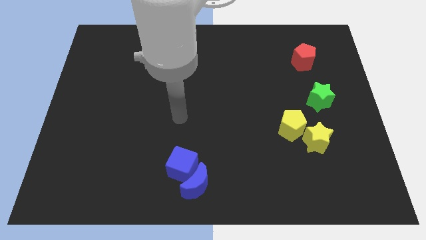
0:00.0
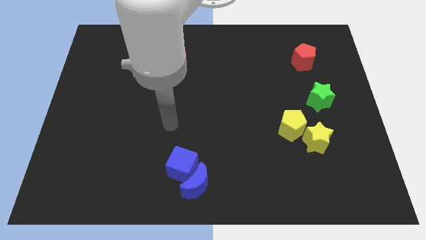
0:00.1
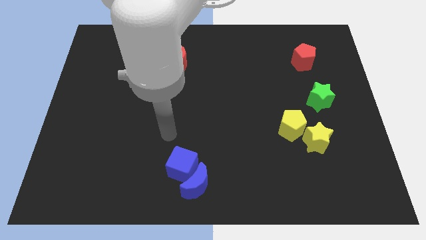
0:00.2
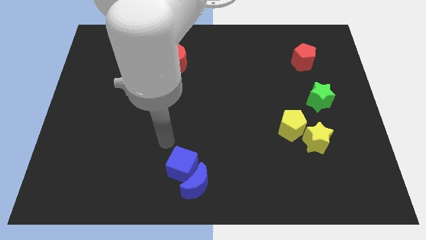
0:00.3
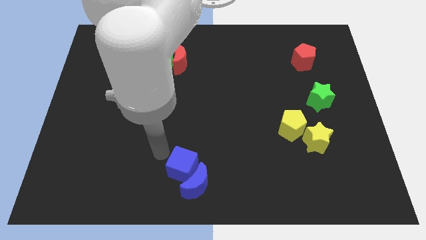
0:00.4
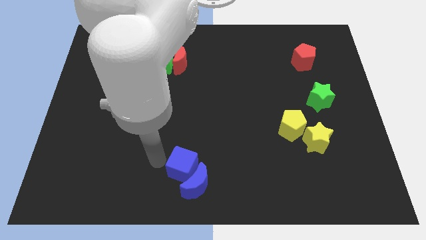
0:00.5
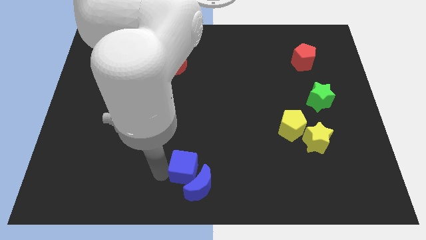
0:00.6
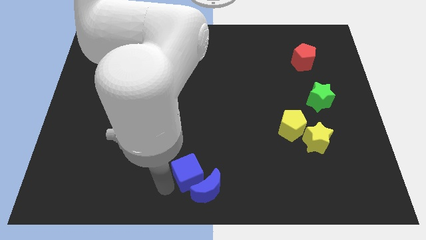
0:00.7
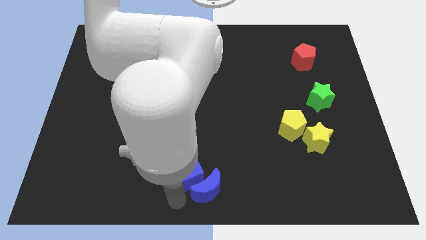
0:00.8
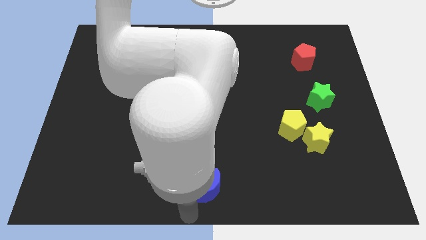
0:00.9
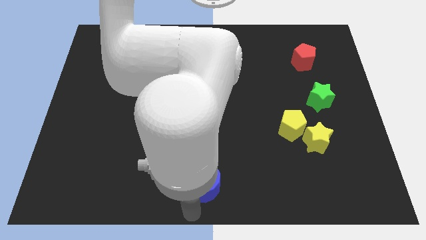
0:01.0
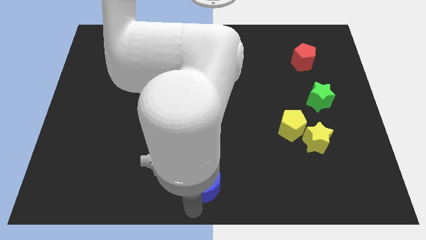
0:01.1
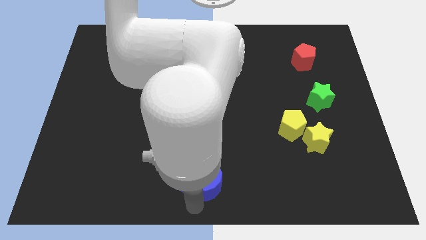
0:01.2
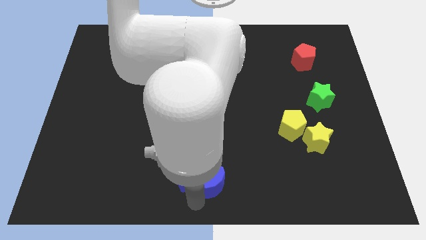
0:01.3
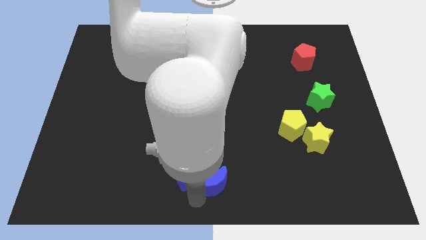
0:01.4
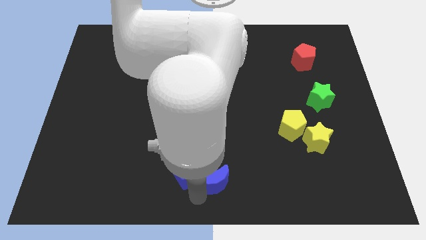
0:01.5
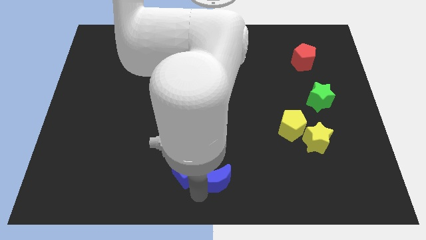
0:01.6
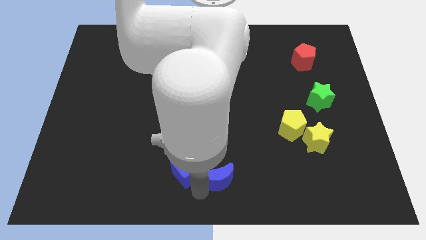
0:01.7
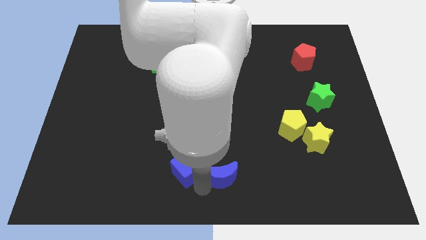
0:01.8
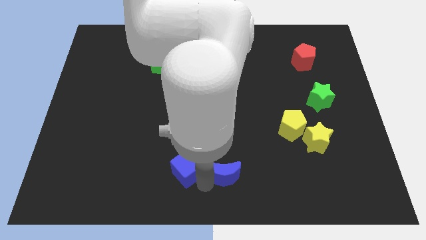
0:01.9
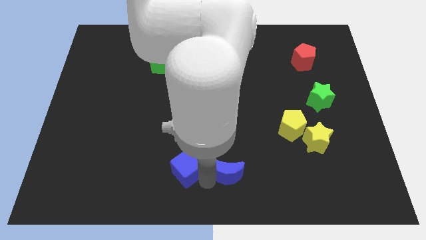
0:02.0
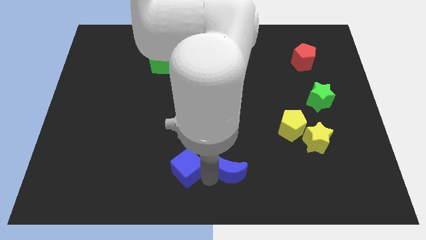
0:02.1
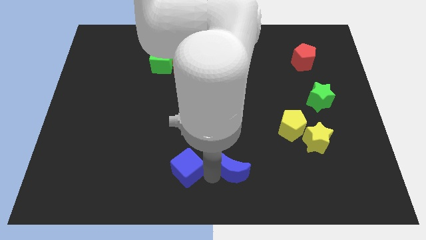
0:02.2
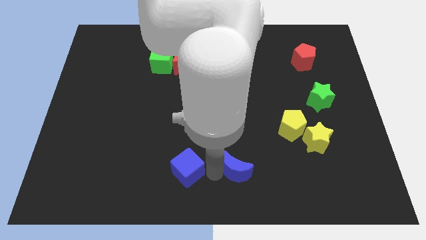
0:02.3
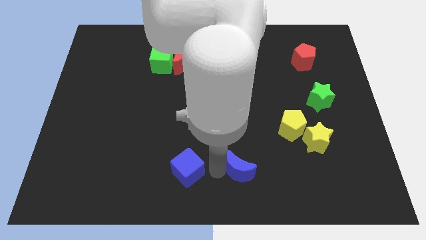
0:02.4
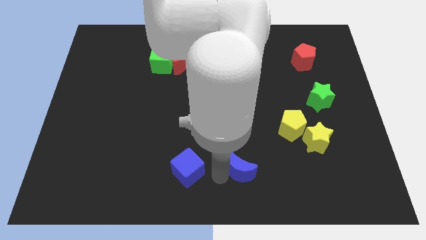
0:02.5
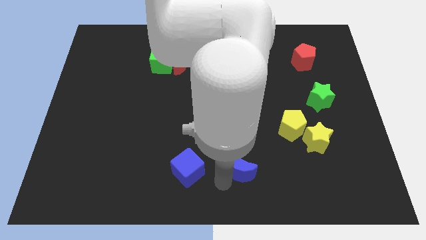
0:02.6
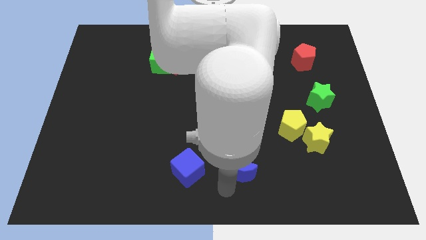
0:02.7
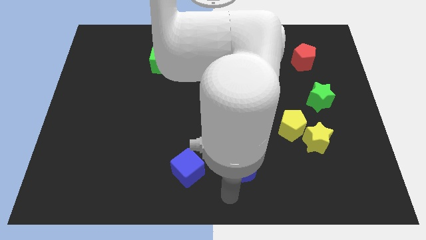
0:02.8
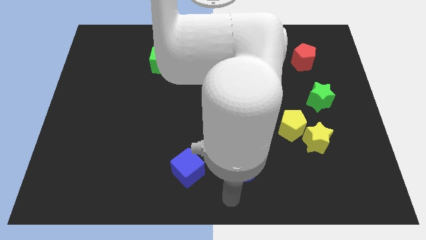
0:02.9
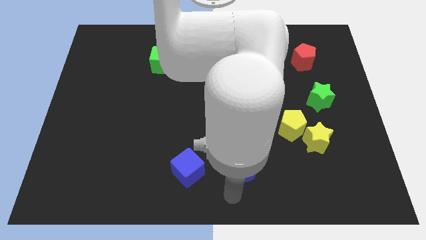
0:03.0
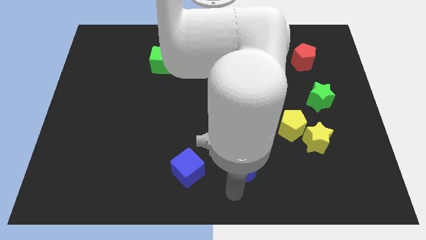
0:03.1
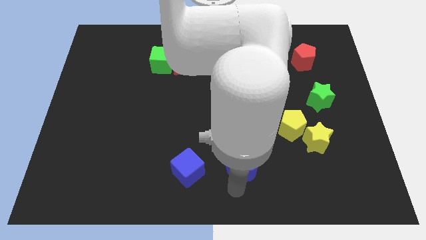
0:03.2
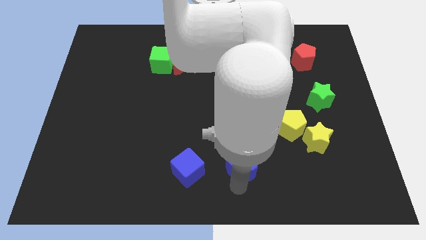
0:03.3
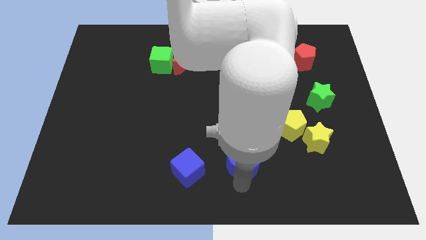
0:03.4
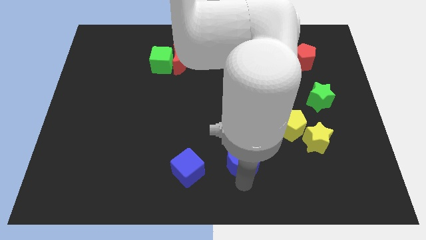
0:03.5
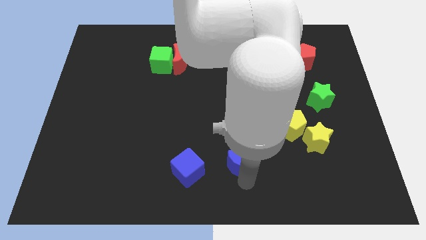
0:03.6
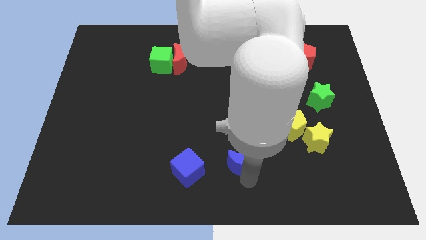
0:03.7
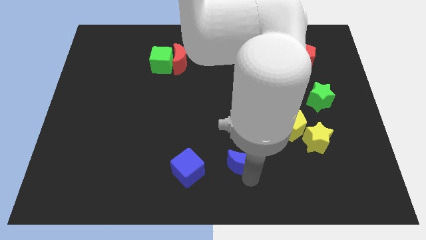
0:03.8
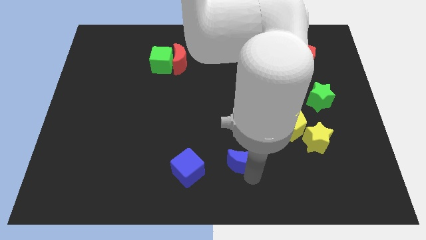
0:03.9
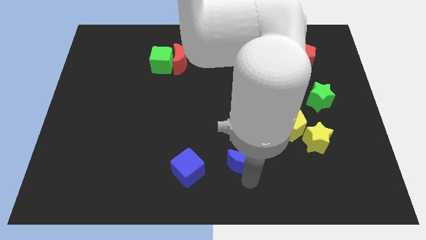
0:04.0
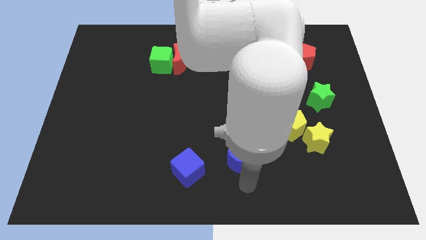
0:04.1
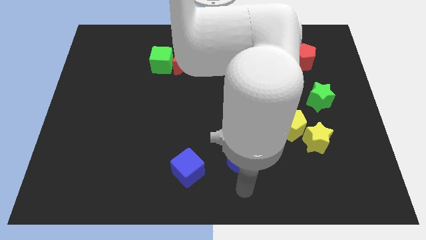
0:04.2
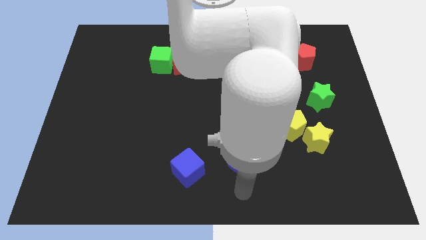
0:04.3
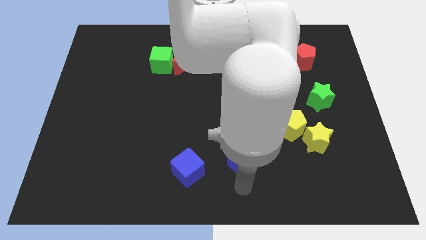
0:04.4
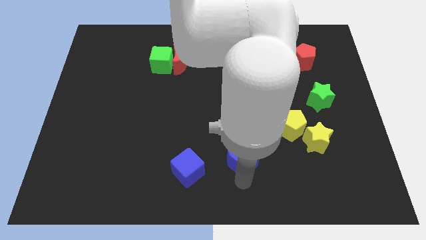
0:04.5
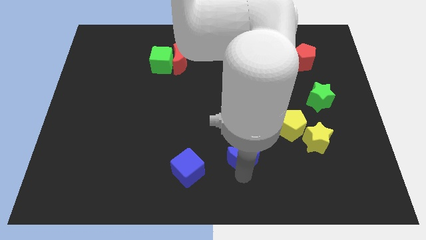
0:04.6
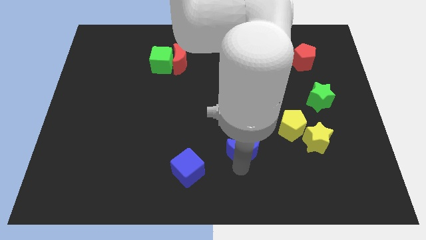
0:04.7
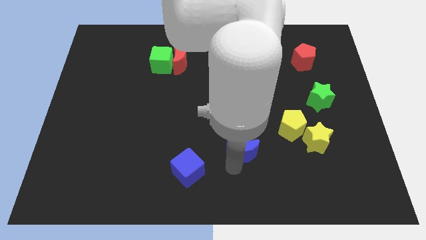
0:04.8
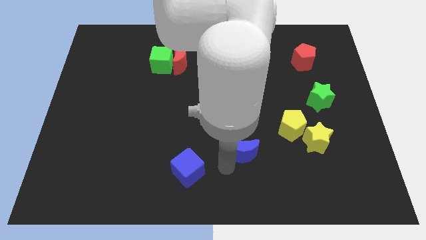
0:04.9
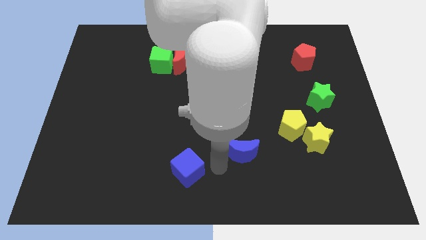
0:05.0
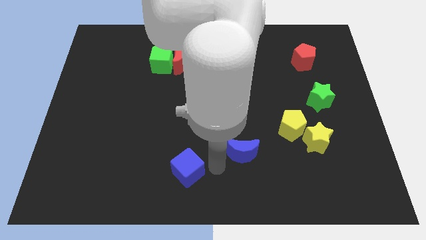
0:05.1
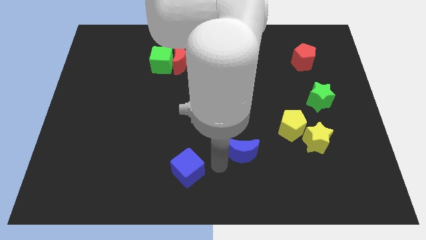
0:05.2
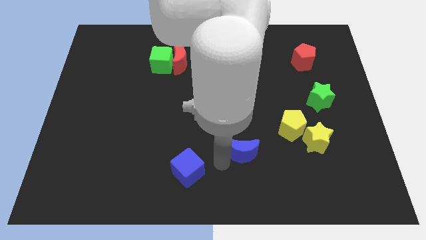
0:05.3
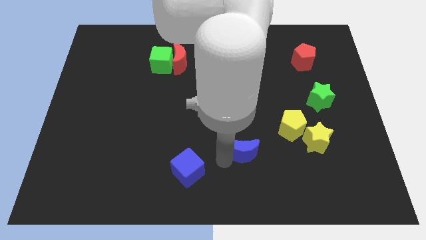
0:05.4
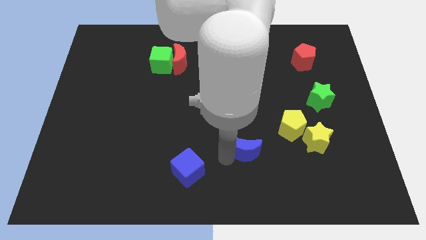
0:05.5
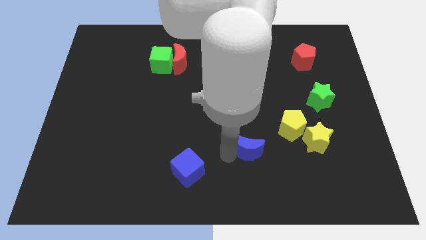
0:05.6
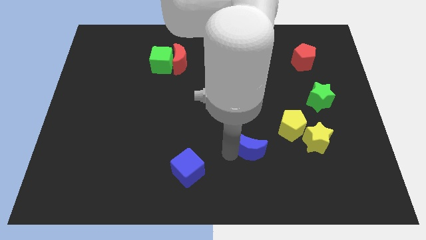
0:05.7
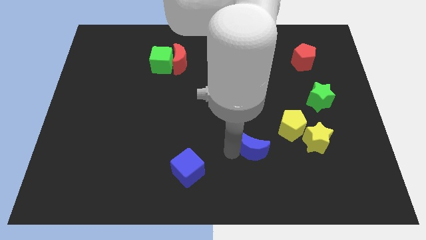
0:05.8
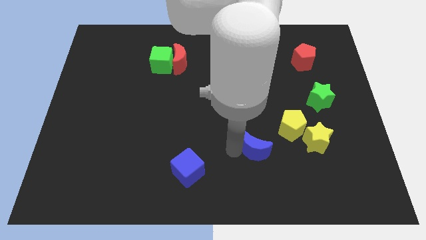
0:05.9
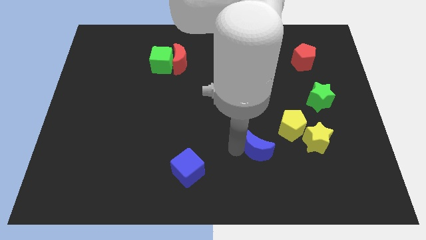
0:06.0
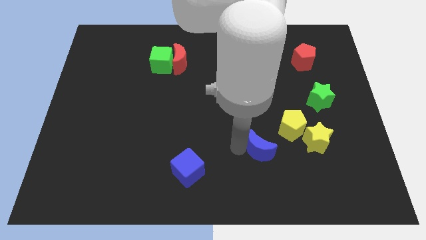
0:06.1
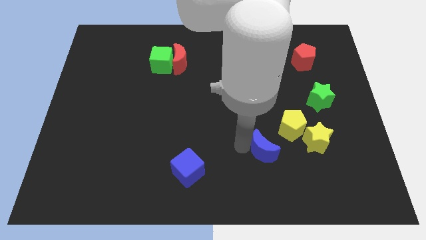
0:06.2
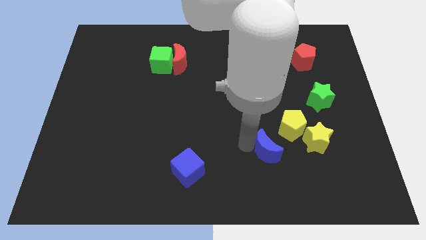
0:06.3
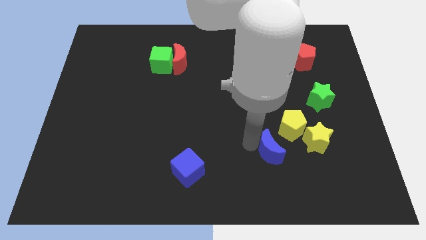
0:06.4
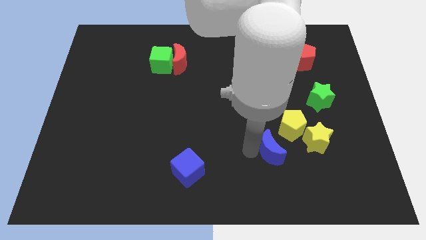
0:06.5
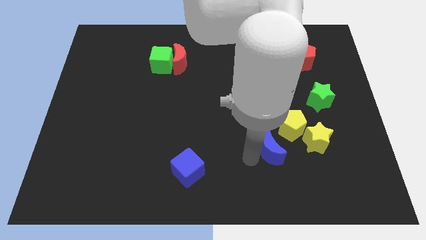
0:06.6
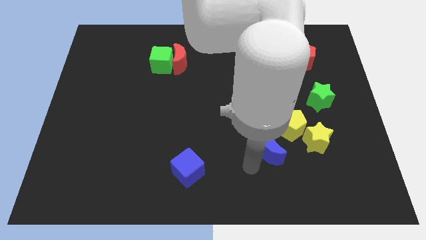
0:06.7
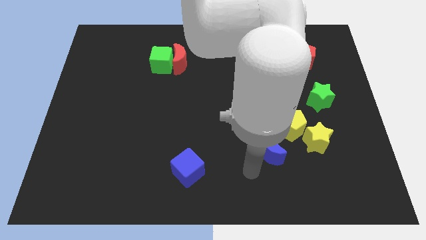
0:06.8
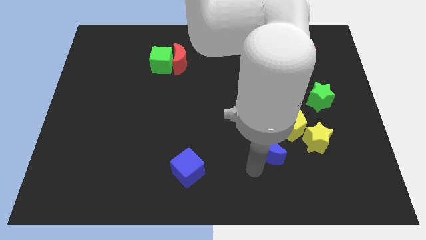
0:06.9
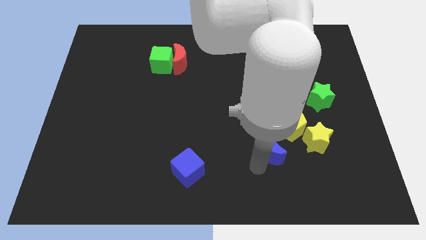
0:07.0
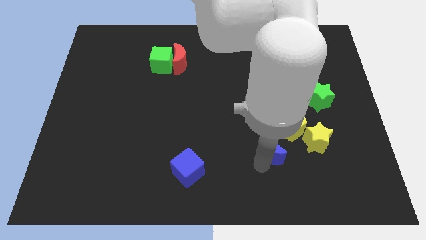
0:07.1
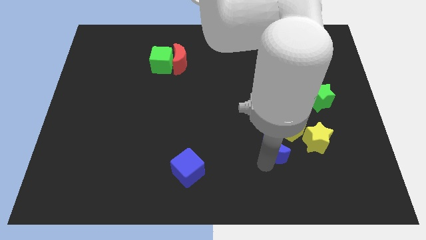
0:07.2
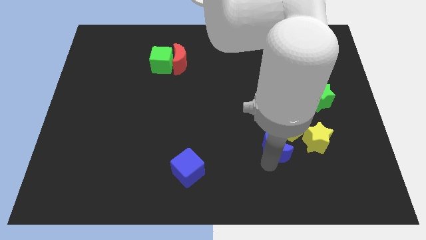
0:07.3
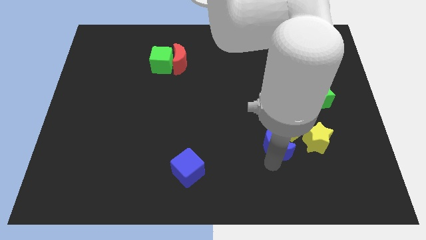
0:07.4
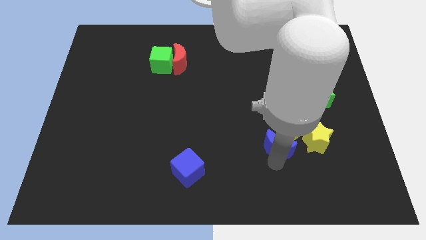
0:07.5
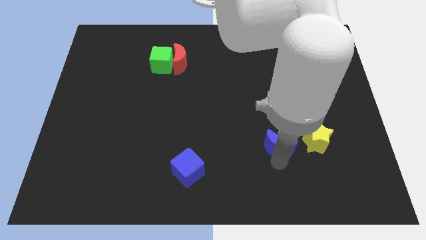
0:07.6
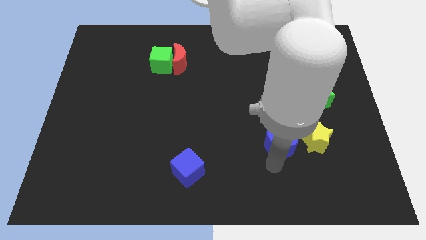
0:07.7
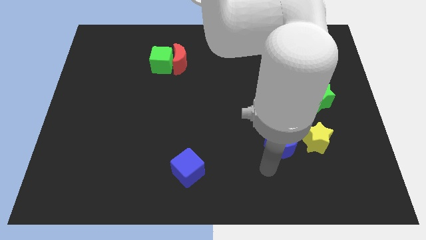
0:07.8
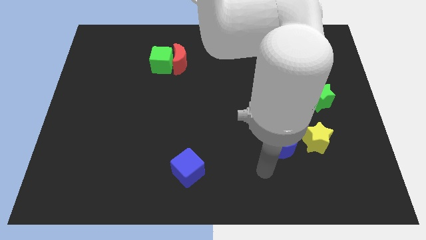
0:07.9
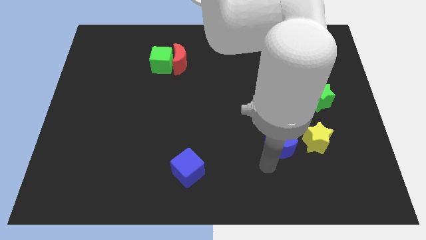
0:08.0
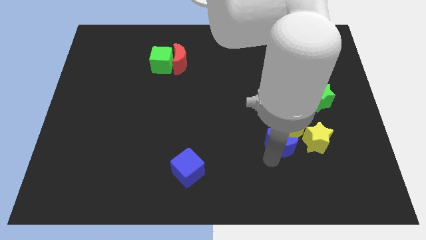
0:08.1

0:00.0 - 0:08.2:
push the blue moon to the yellow pentagon
